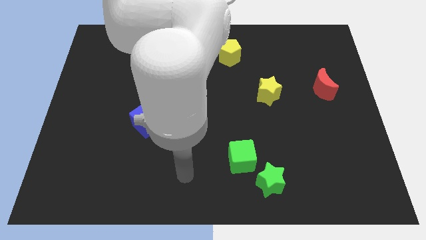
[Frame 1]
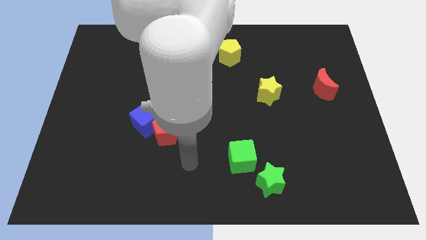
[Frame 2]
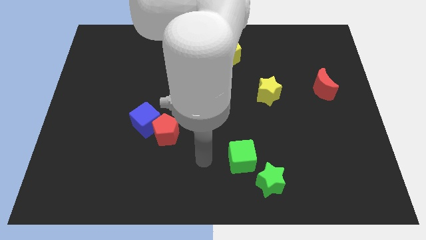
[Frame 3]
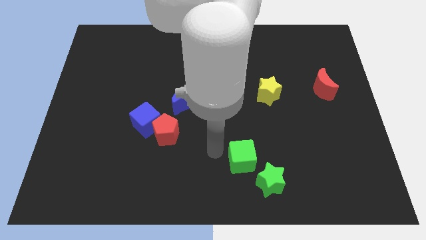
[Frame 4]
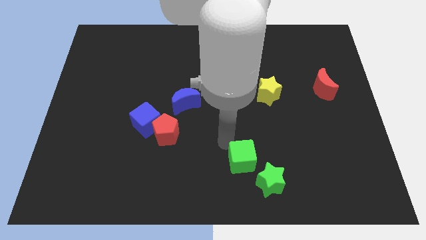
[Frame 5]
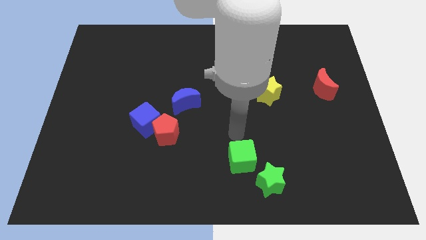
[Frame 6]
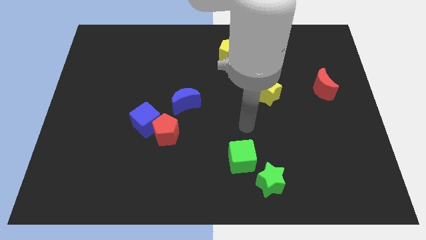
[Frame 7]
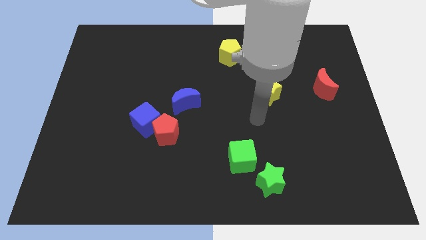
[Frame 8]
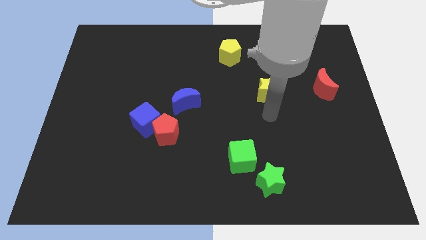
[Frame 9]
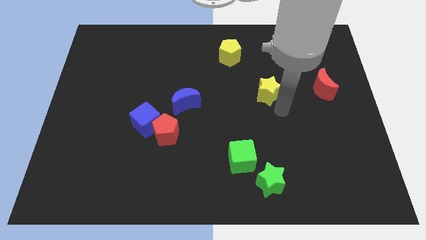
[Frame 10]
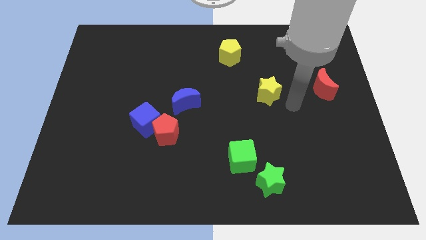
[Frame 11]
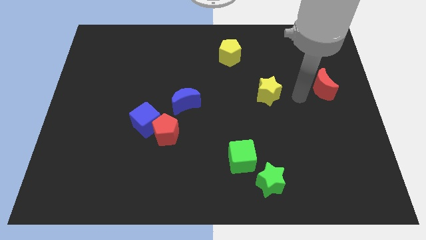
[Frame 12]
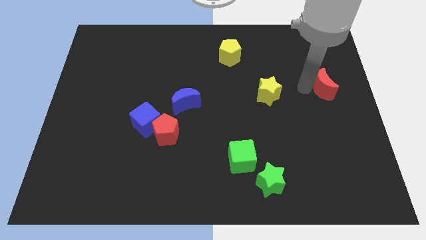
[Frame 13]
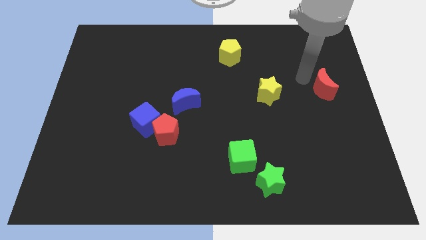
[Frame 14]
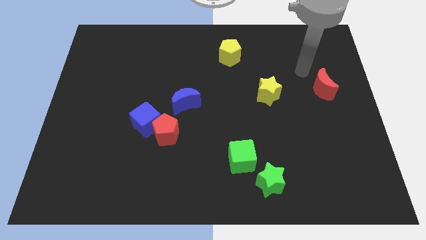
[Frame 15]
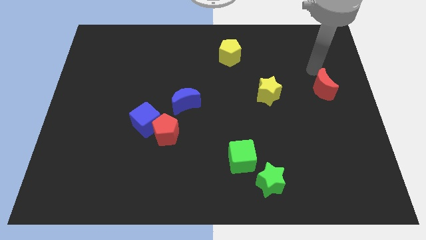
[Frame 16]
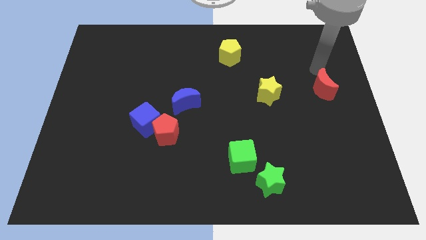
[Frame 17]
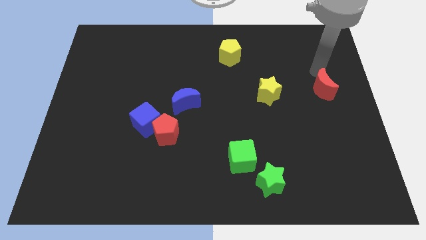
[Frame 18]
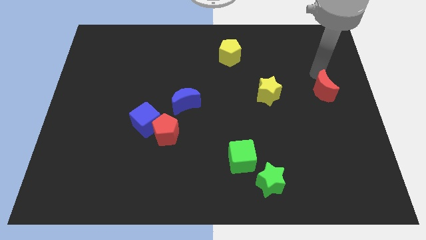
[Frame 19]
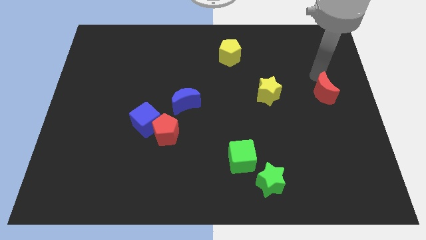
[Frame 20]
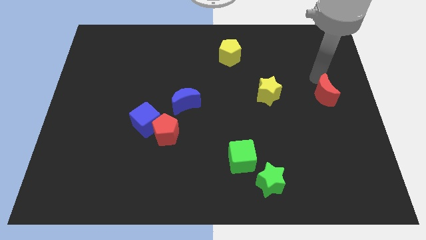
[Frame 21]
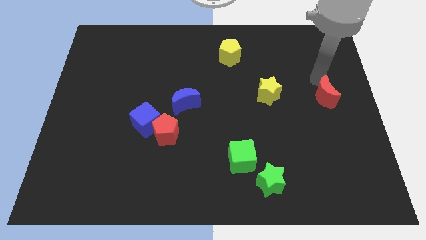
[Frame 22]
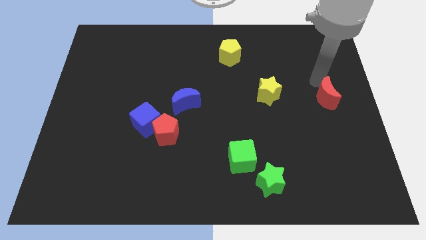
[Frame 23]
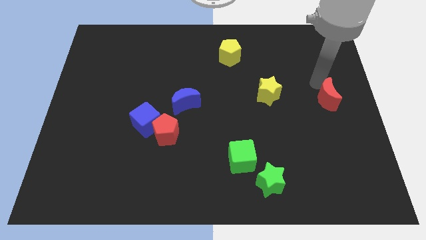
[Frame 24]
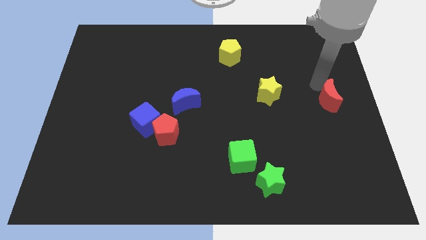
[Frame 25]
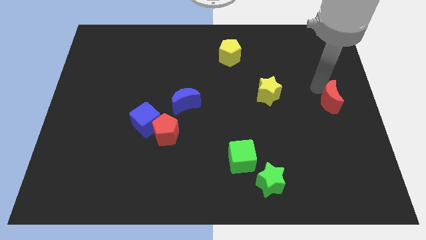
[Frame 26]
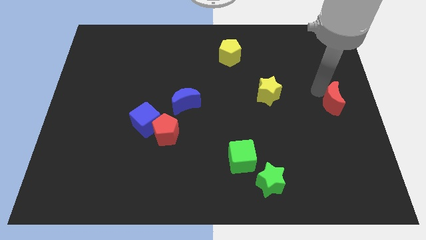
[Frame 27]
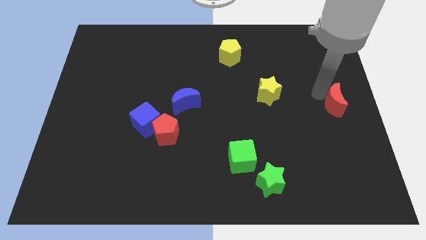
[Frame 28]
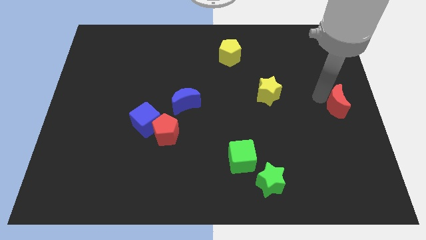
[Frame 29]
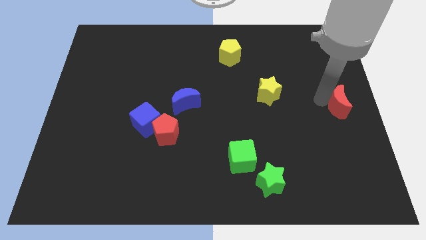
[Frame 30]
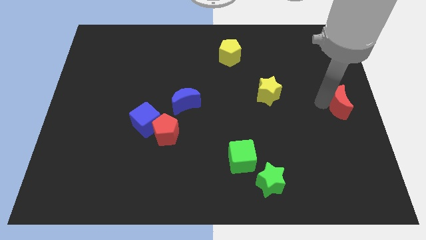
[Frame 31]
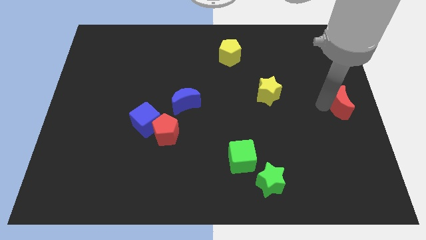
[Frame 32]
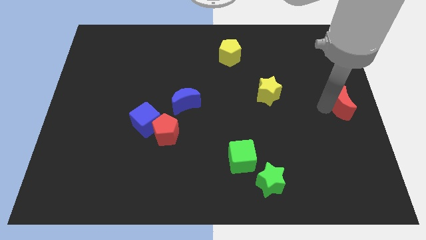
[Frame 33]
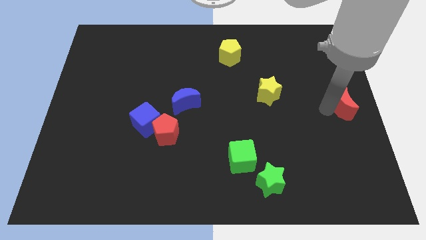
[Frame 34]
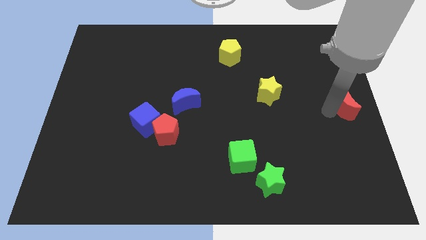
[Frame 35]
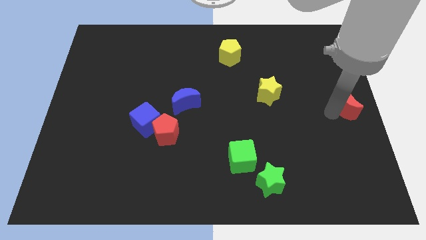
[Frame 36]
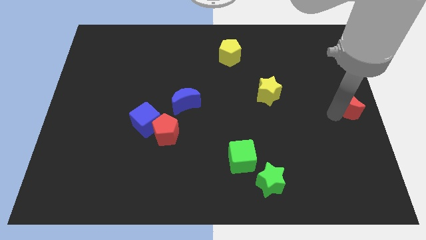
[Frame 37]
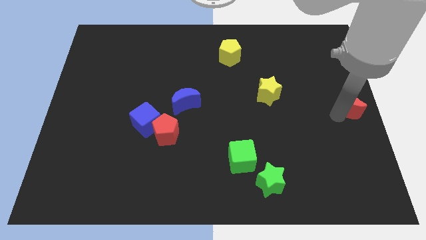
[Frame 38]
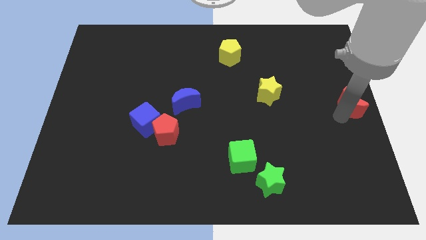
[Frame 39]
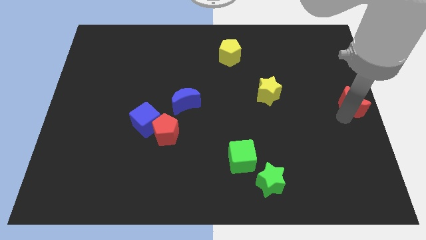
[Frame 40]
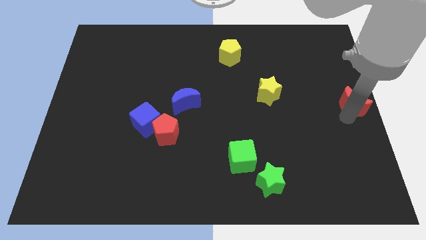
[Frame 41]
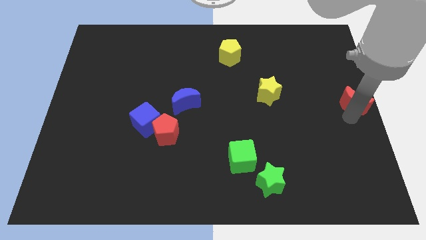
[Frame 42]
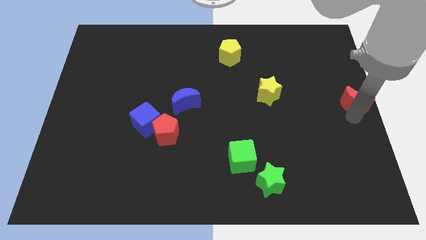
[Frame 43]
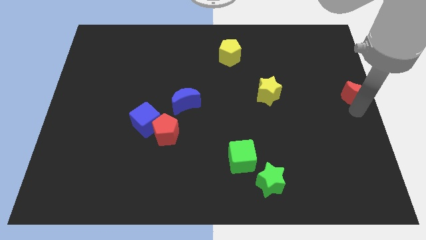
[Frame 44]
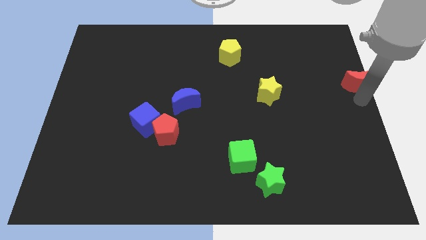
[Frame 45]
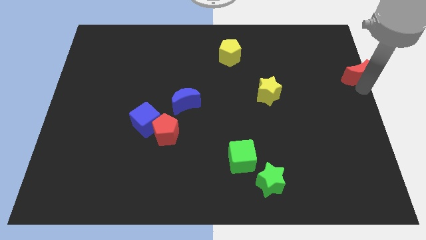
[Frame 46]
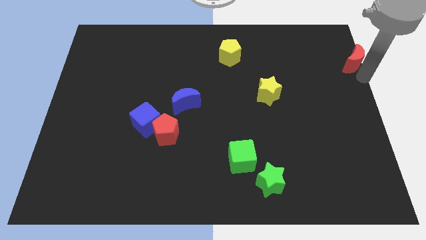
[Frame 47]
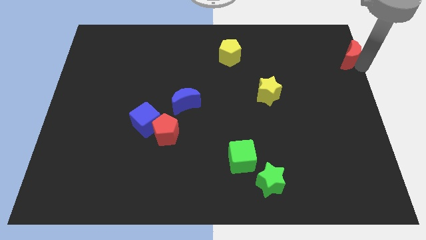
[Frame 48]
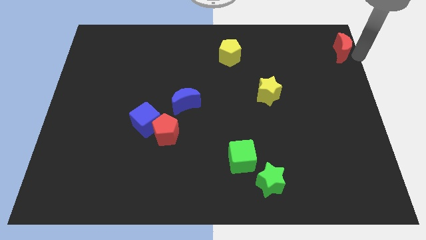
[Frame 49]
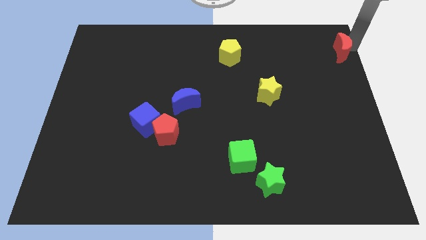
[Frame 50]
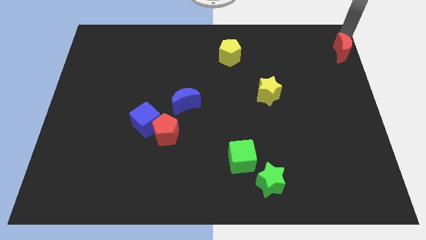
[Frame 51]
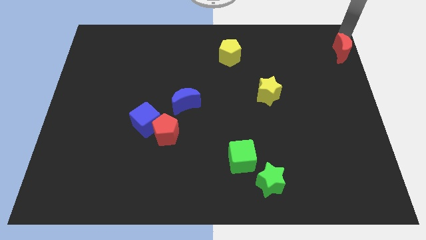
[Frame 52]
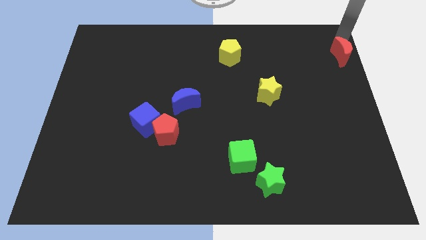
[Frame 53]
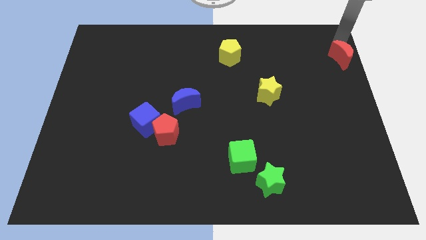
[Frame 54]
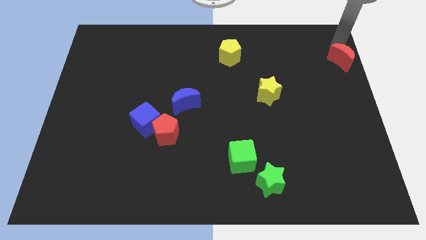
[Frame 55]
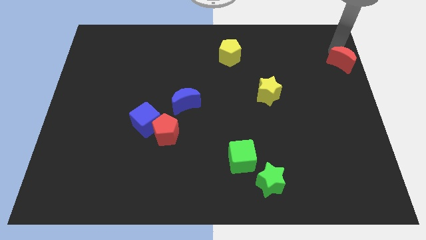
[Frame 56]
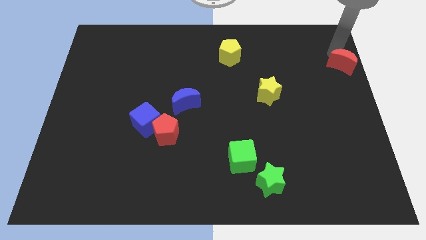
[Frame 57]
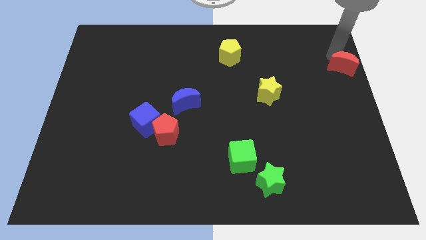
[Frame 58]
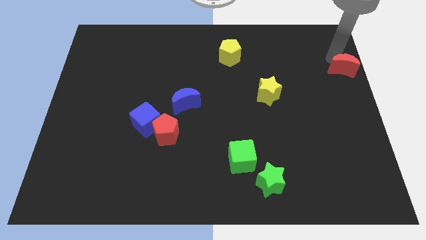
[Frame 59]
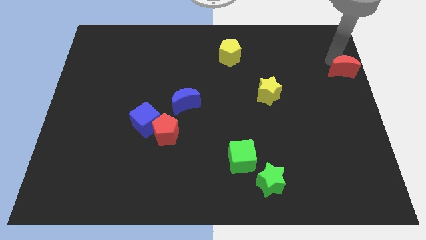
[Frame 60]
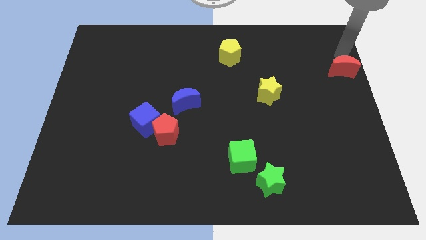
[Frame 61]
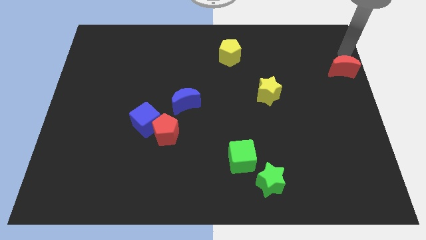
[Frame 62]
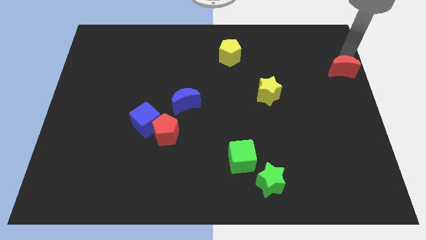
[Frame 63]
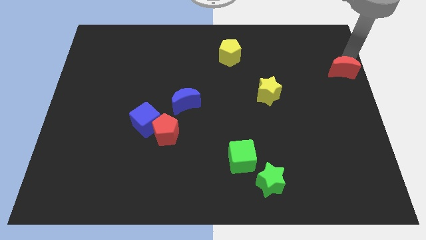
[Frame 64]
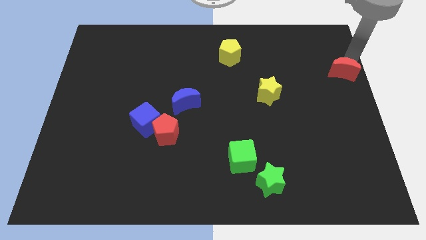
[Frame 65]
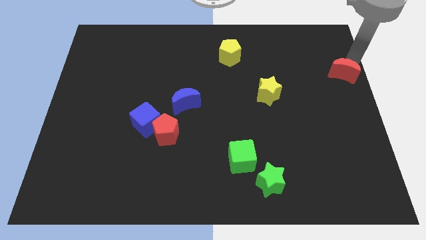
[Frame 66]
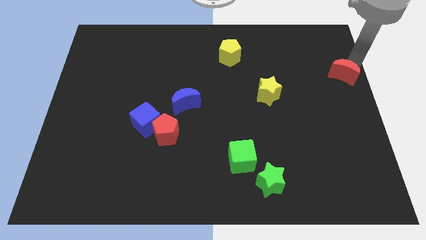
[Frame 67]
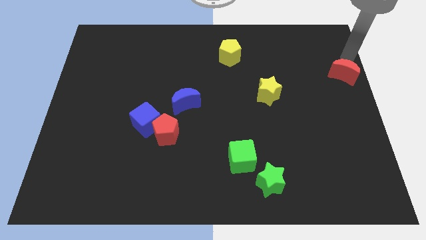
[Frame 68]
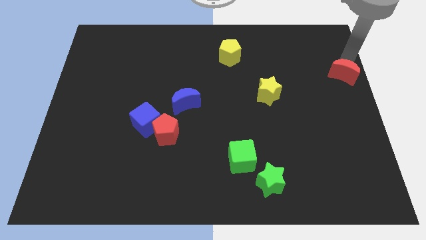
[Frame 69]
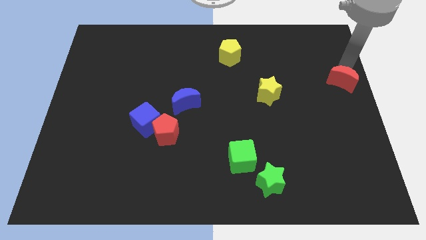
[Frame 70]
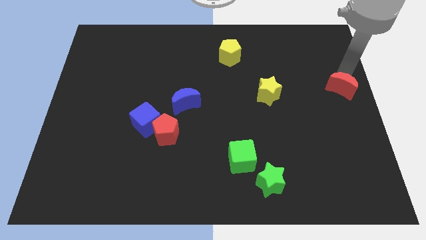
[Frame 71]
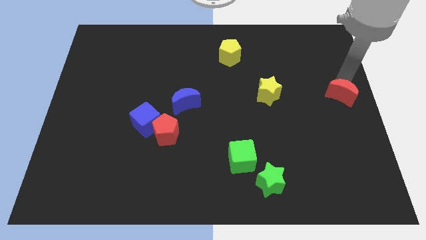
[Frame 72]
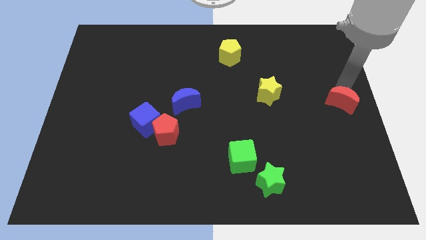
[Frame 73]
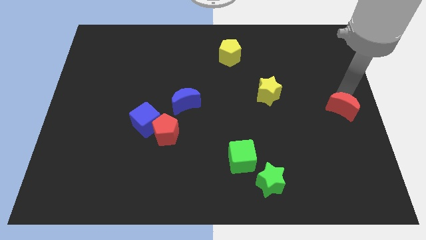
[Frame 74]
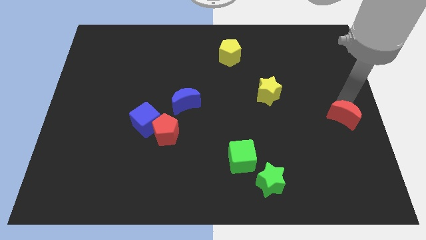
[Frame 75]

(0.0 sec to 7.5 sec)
slightly move the red moon downwards

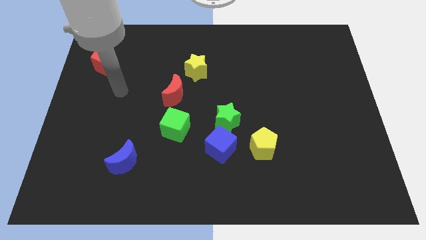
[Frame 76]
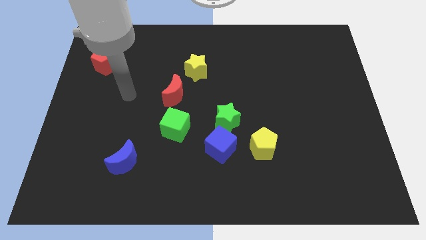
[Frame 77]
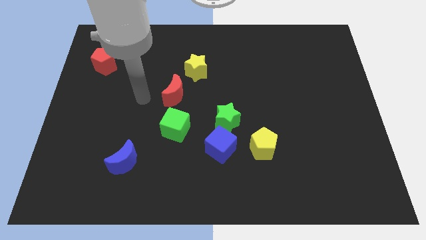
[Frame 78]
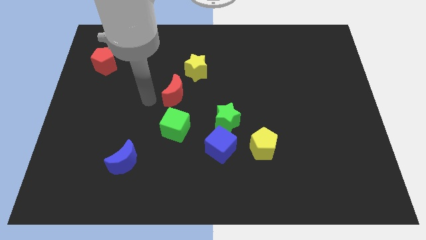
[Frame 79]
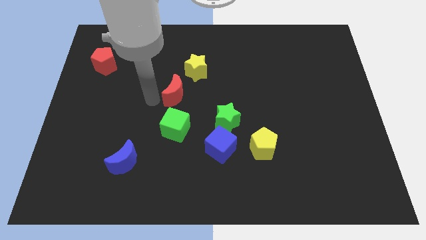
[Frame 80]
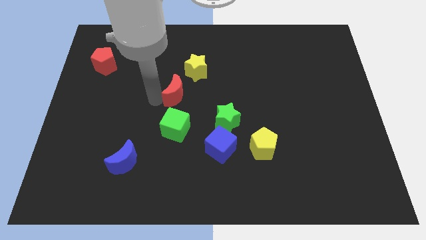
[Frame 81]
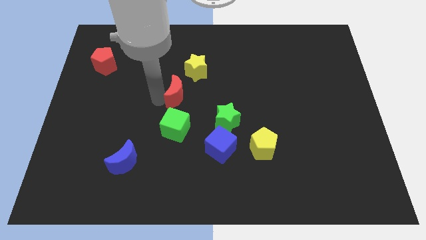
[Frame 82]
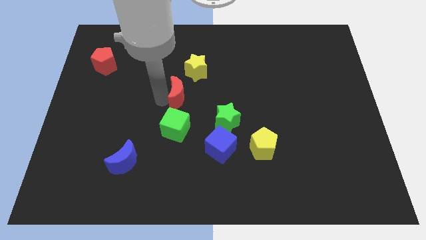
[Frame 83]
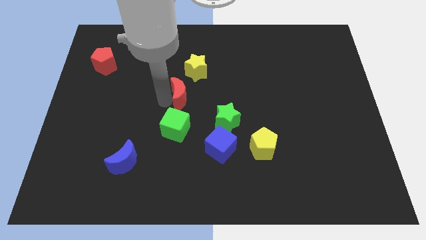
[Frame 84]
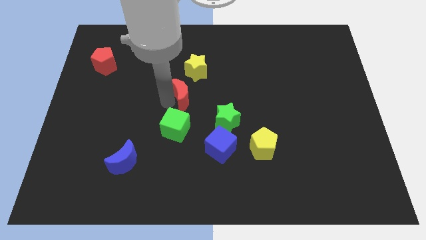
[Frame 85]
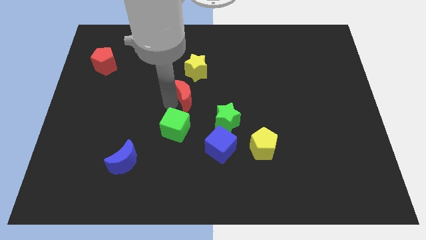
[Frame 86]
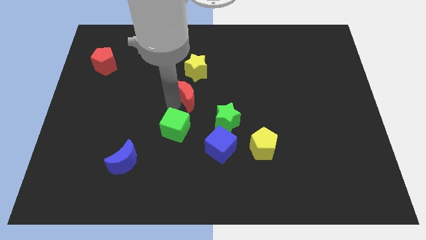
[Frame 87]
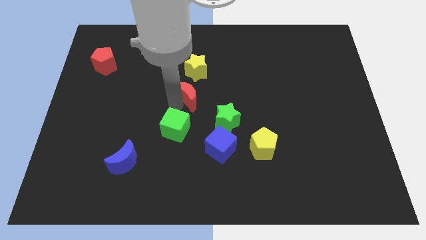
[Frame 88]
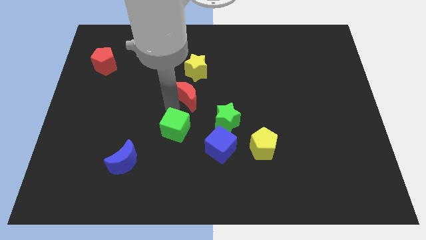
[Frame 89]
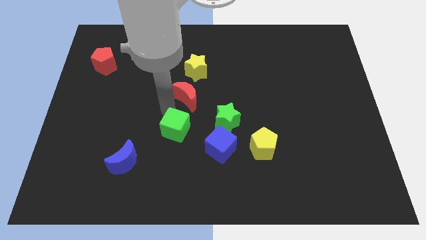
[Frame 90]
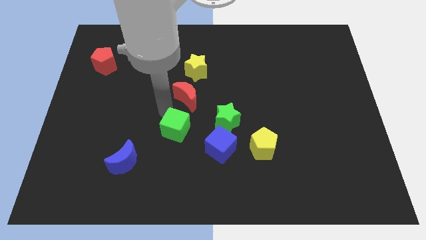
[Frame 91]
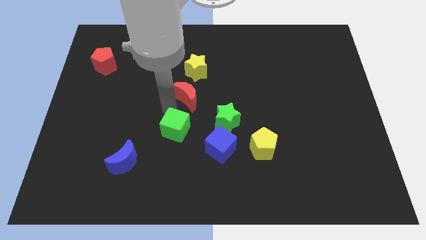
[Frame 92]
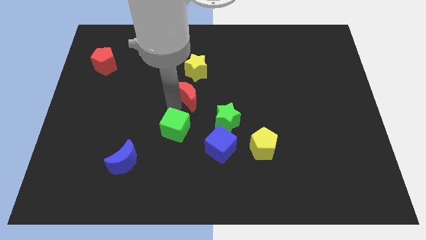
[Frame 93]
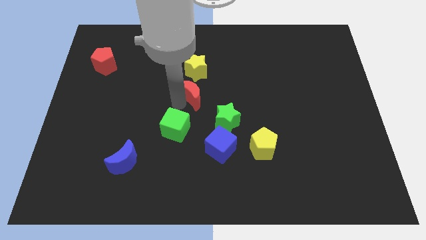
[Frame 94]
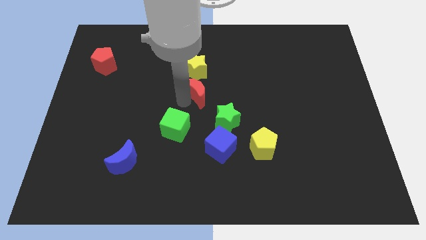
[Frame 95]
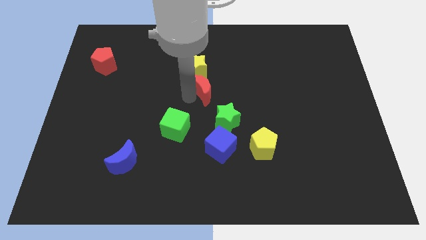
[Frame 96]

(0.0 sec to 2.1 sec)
slide the red moon to the right a little bit
